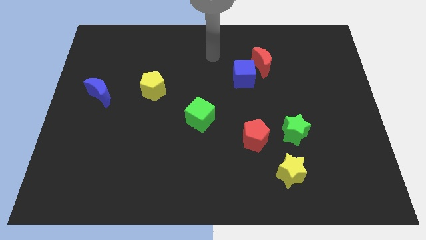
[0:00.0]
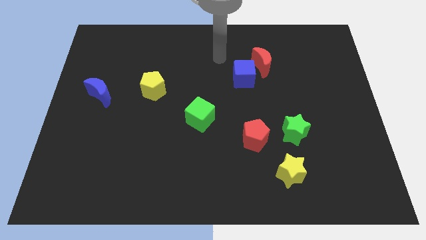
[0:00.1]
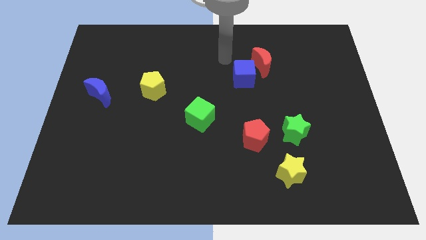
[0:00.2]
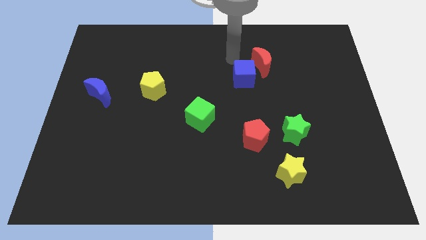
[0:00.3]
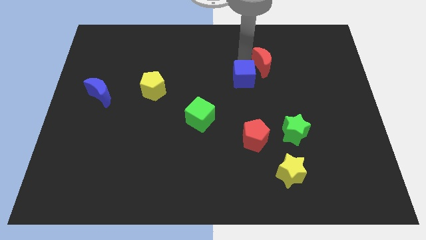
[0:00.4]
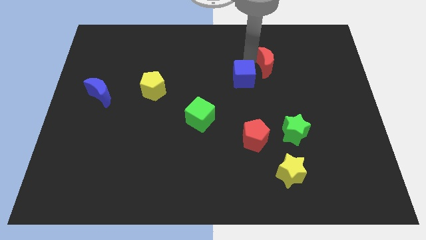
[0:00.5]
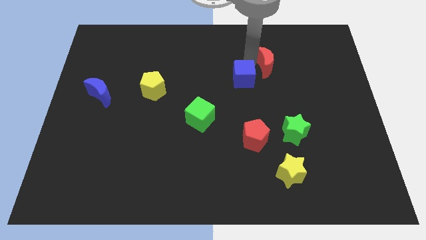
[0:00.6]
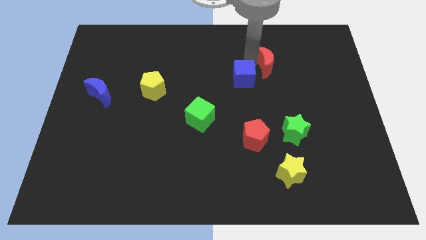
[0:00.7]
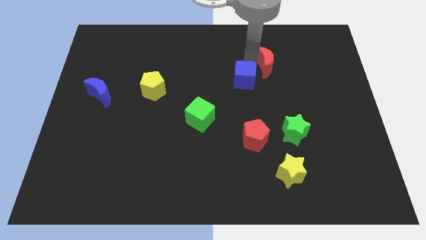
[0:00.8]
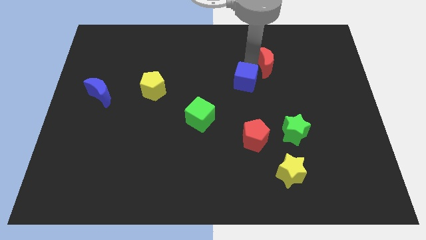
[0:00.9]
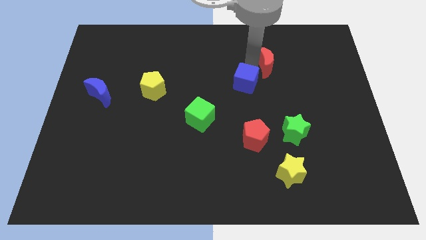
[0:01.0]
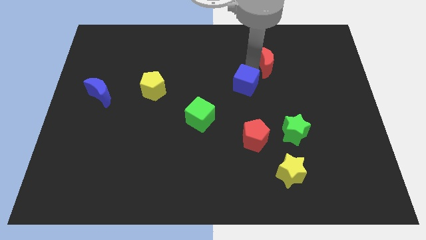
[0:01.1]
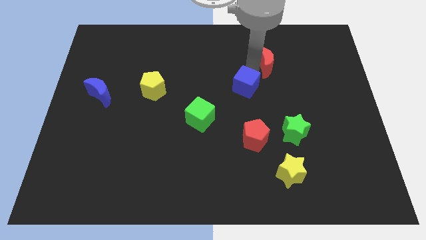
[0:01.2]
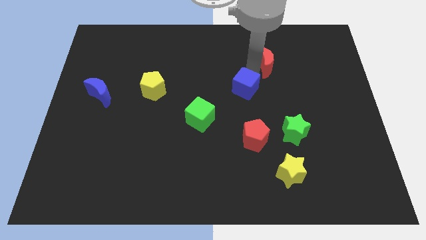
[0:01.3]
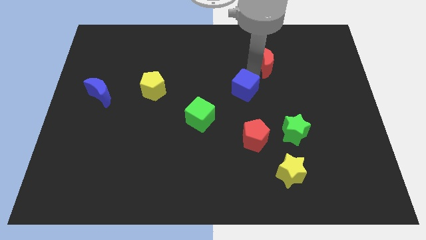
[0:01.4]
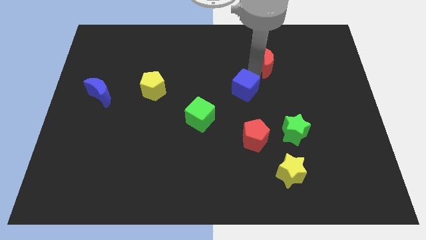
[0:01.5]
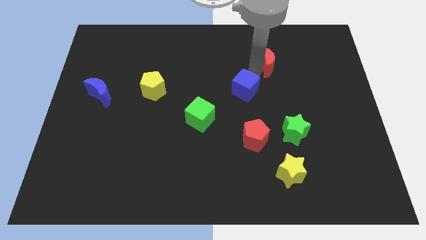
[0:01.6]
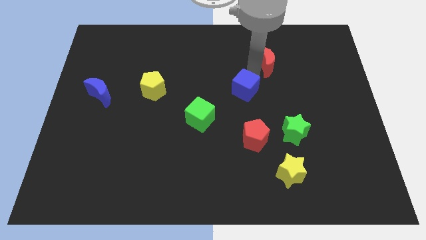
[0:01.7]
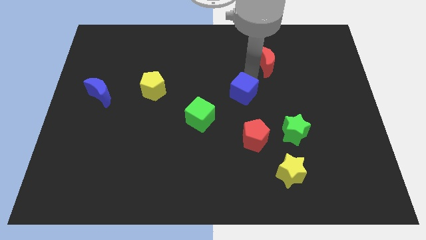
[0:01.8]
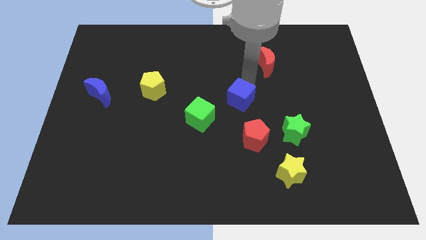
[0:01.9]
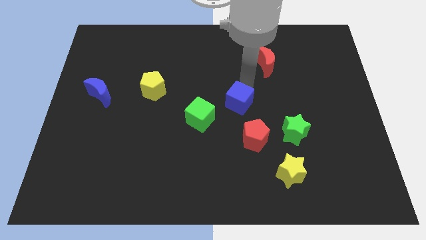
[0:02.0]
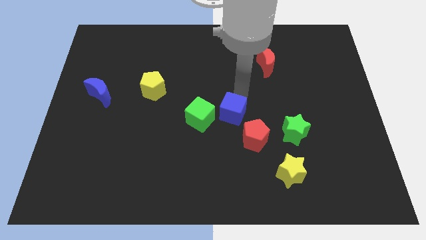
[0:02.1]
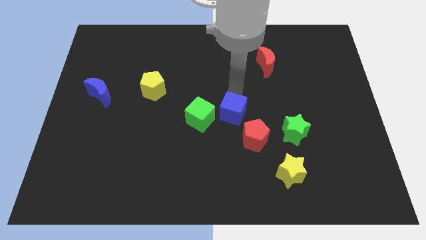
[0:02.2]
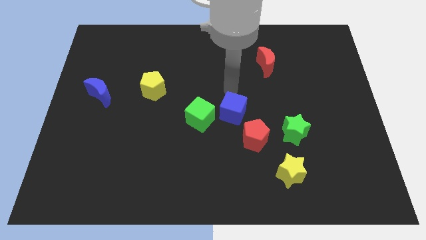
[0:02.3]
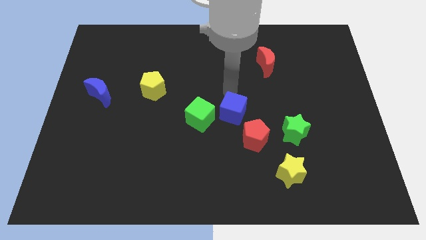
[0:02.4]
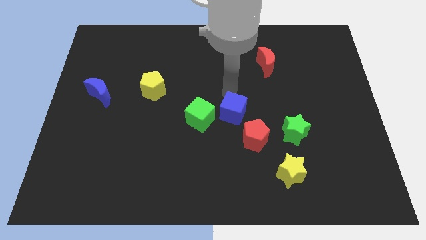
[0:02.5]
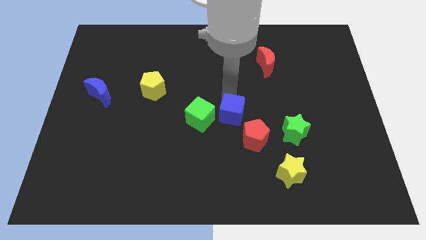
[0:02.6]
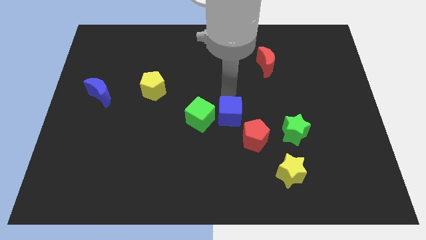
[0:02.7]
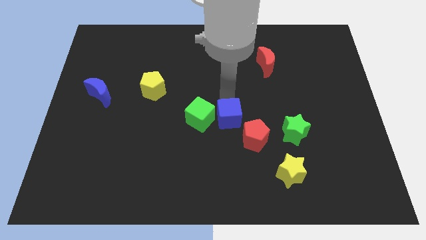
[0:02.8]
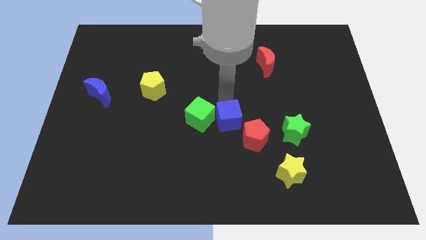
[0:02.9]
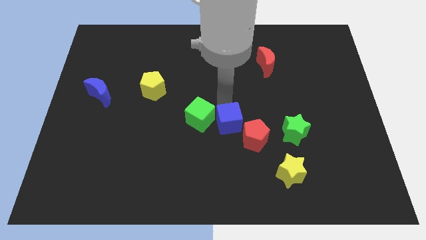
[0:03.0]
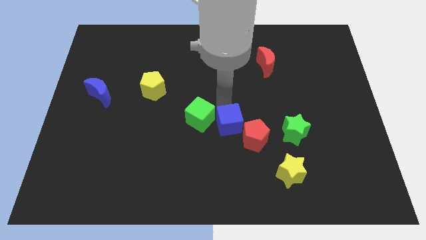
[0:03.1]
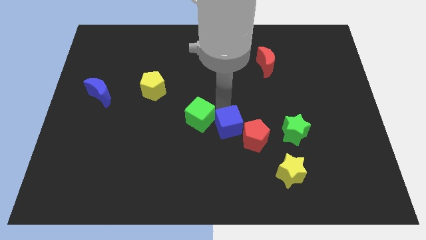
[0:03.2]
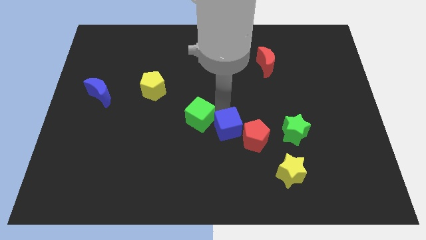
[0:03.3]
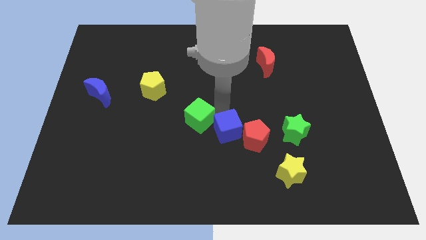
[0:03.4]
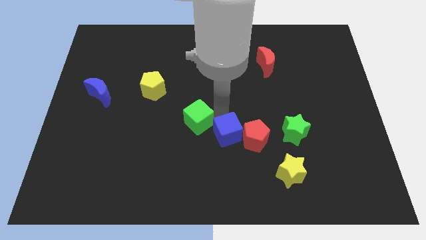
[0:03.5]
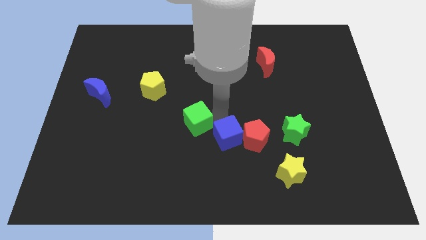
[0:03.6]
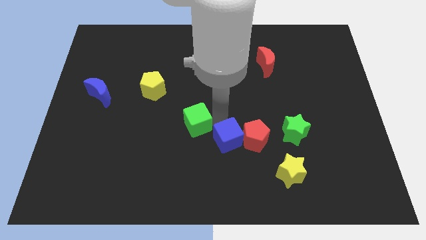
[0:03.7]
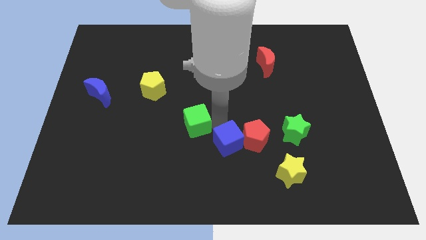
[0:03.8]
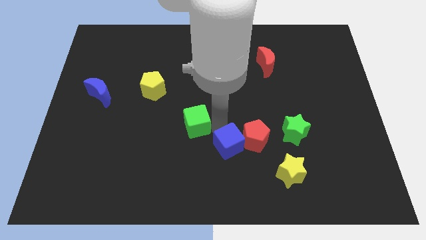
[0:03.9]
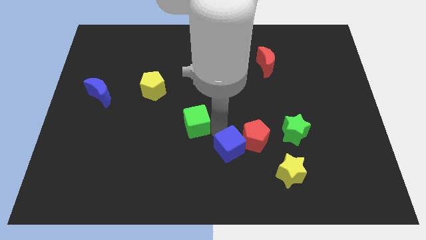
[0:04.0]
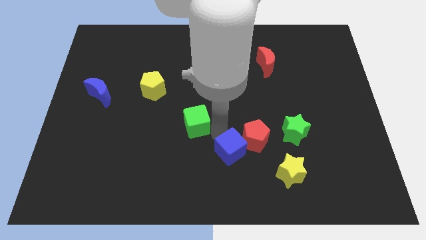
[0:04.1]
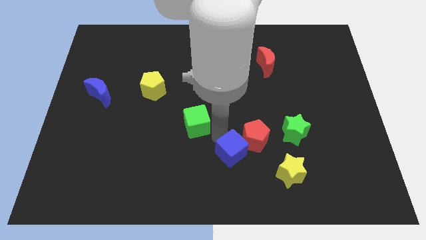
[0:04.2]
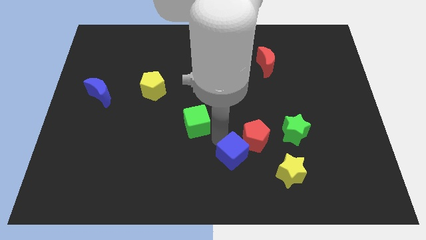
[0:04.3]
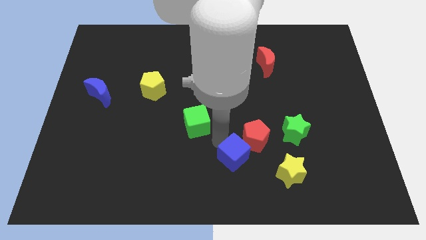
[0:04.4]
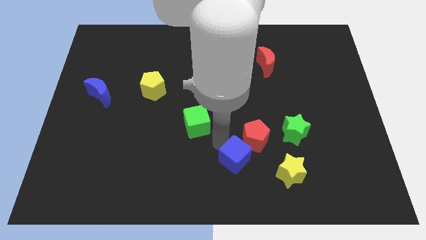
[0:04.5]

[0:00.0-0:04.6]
put the blue cube to the bottom of the red pentagon

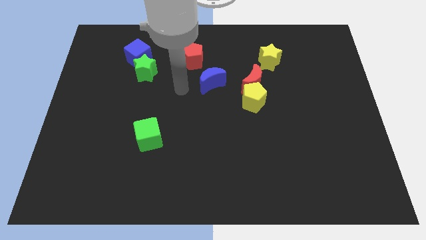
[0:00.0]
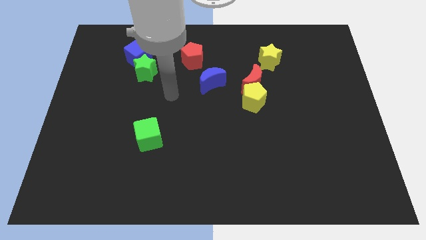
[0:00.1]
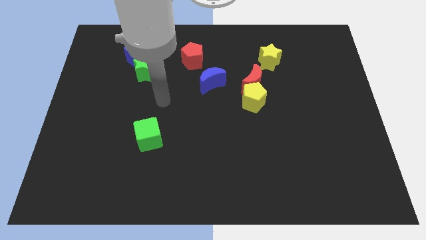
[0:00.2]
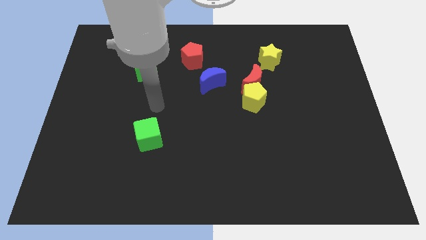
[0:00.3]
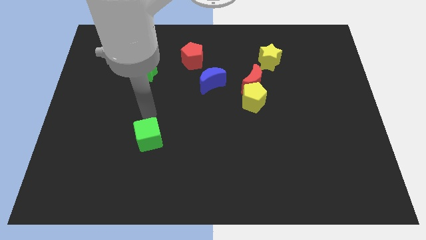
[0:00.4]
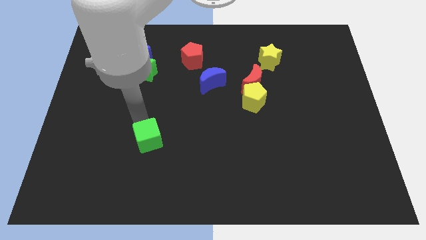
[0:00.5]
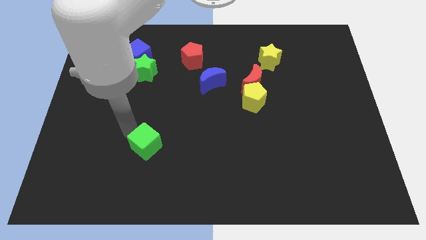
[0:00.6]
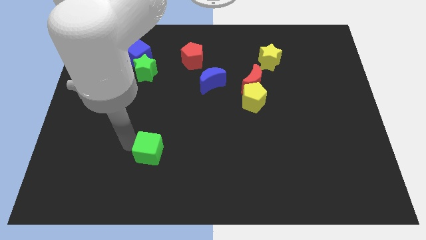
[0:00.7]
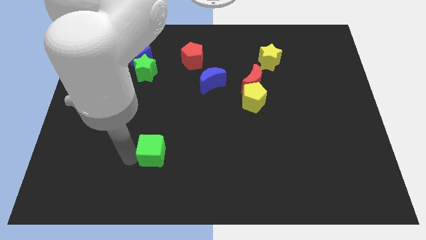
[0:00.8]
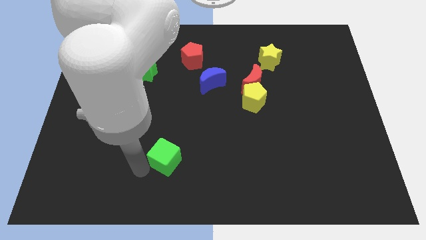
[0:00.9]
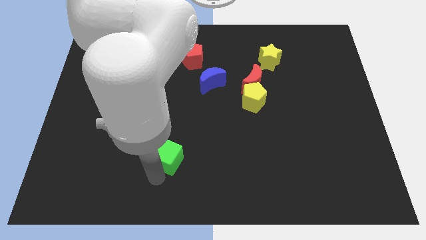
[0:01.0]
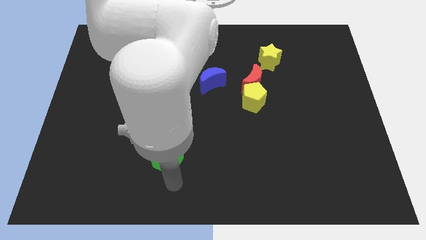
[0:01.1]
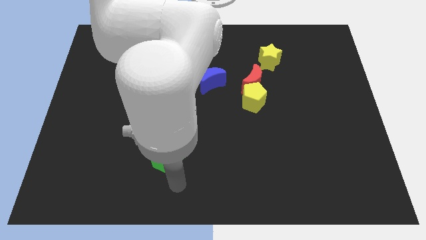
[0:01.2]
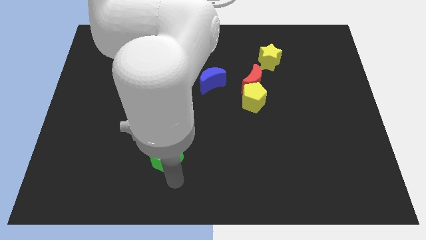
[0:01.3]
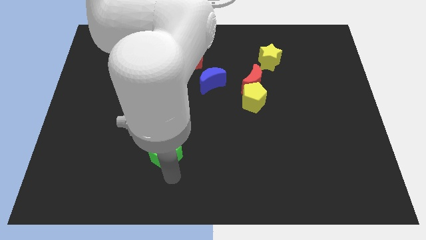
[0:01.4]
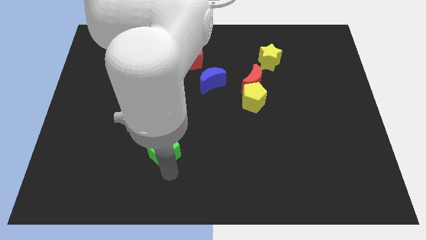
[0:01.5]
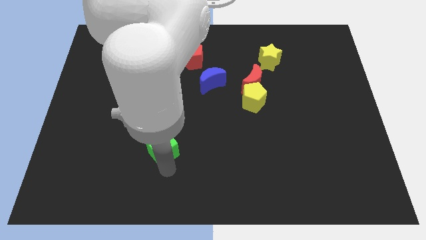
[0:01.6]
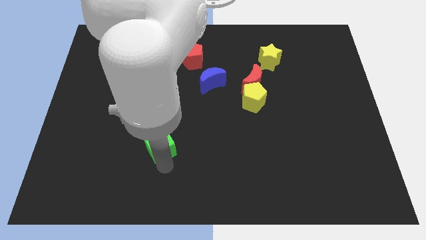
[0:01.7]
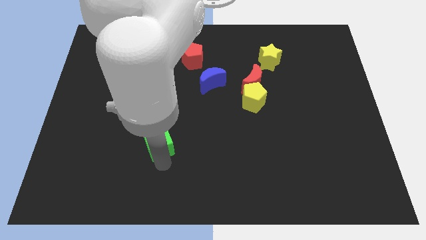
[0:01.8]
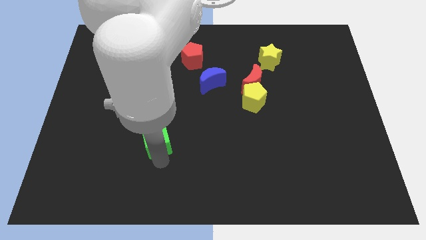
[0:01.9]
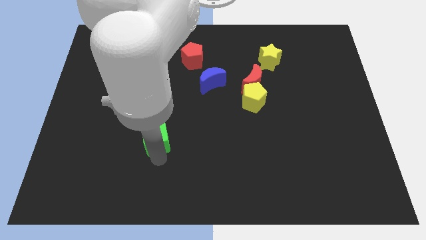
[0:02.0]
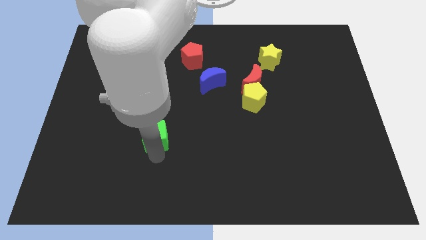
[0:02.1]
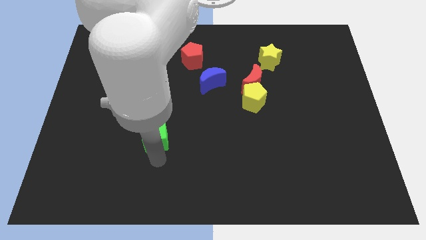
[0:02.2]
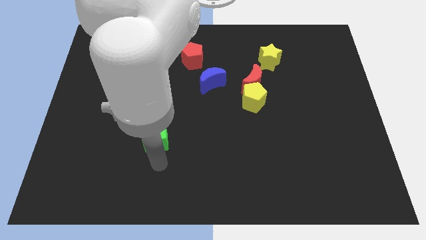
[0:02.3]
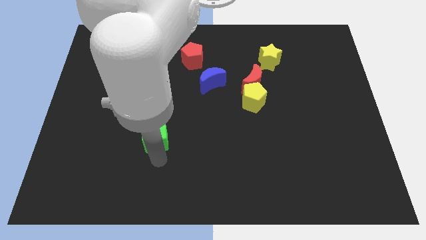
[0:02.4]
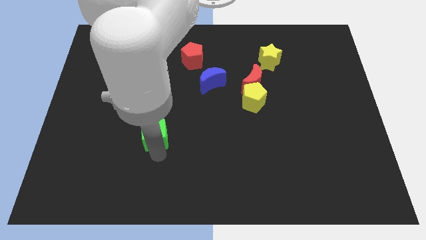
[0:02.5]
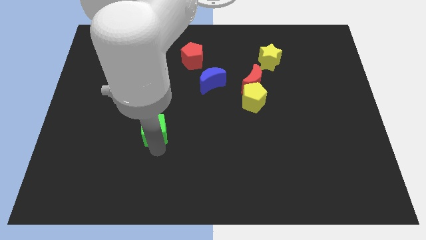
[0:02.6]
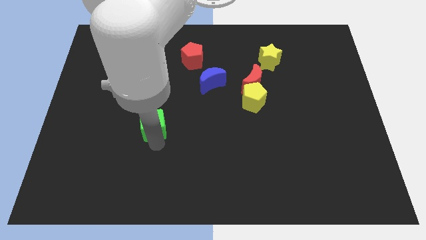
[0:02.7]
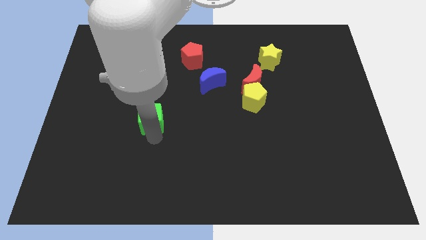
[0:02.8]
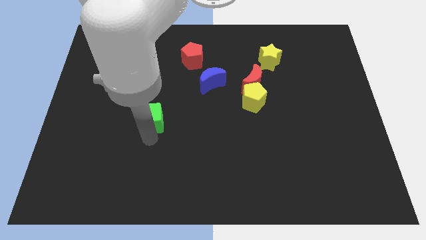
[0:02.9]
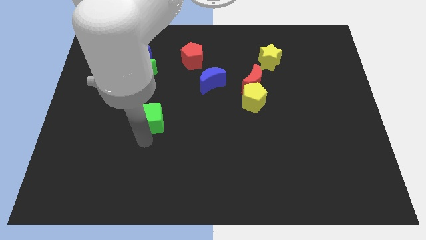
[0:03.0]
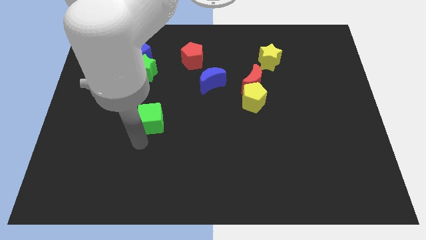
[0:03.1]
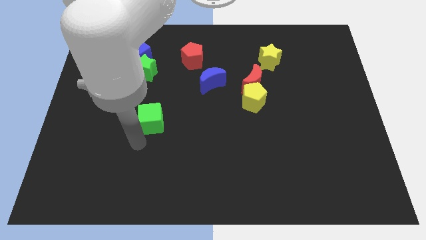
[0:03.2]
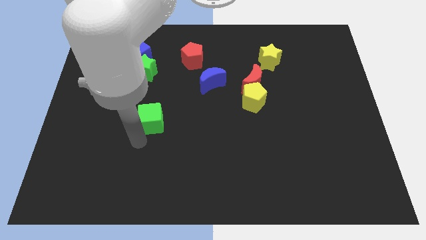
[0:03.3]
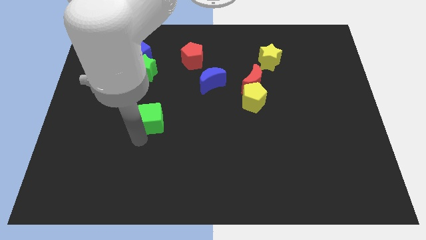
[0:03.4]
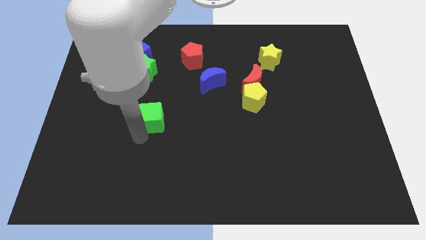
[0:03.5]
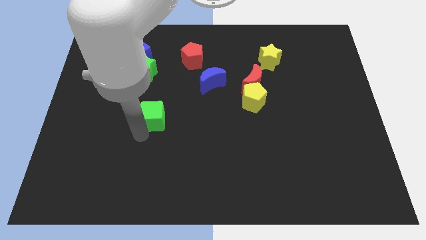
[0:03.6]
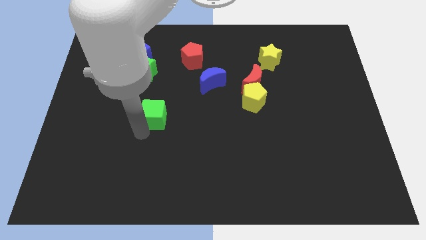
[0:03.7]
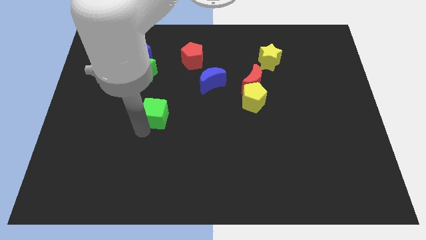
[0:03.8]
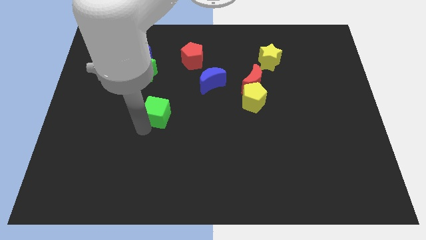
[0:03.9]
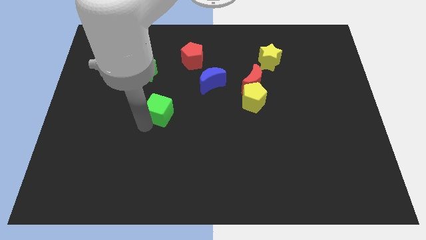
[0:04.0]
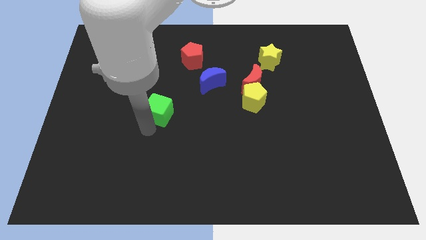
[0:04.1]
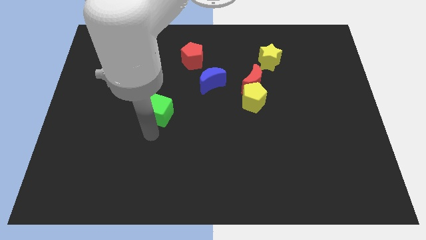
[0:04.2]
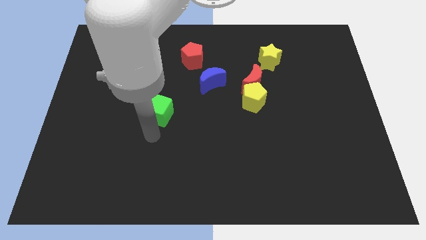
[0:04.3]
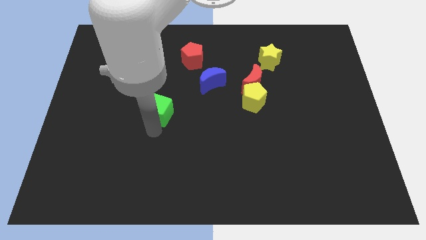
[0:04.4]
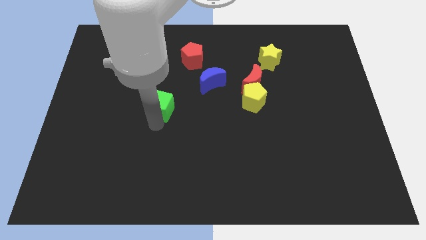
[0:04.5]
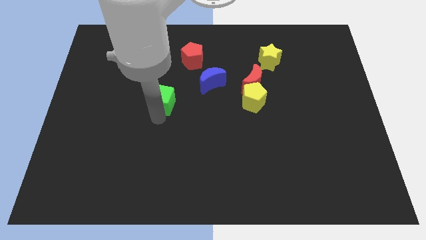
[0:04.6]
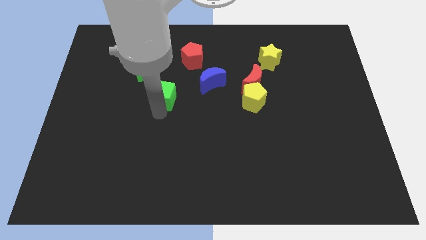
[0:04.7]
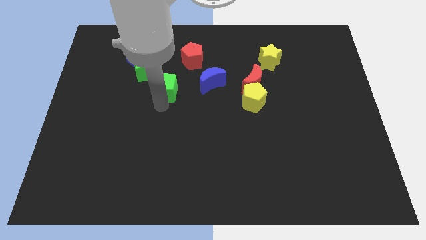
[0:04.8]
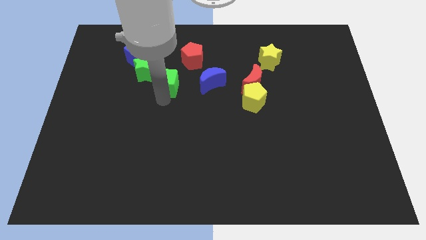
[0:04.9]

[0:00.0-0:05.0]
push the green cube to the bottom left side of the red pentagon
